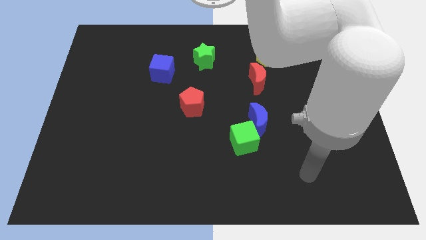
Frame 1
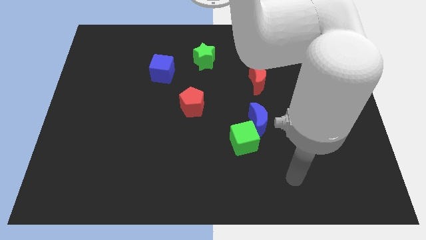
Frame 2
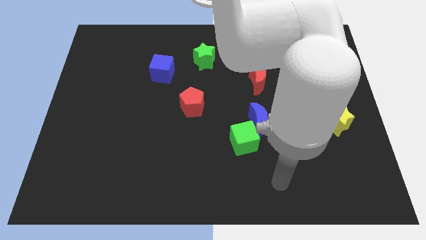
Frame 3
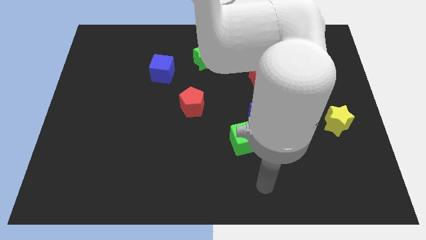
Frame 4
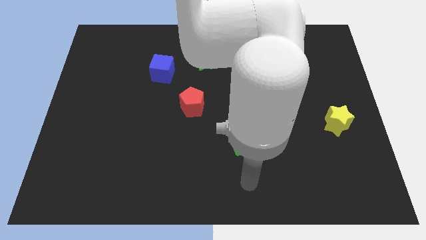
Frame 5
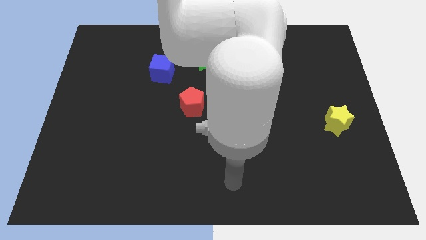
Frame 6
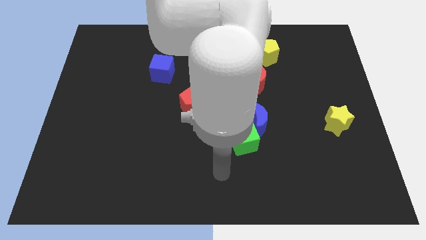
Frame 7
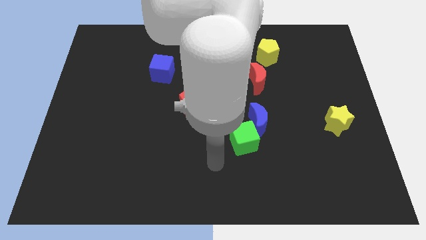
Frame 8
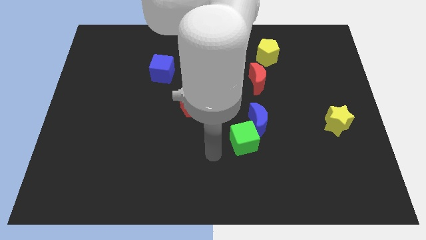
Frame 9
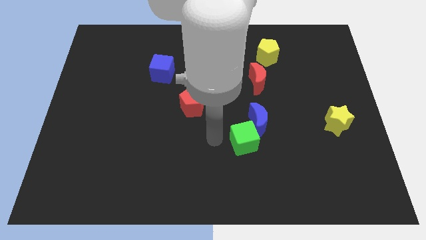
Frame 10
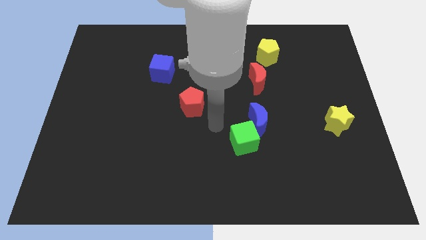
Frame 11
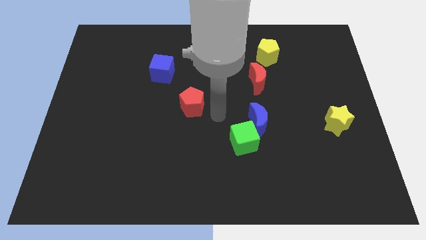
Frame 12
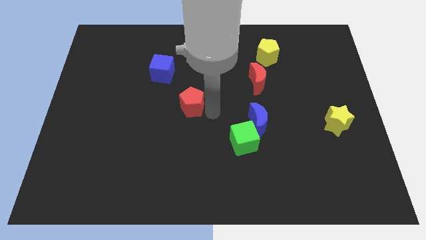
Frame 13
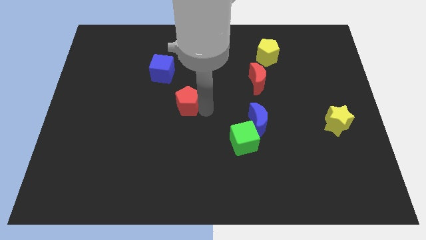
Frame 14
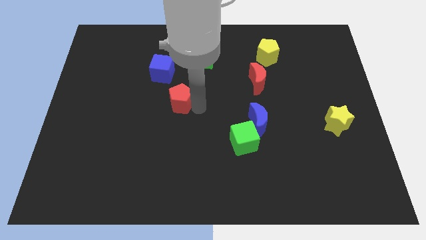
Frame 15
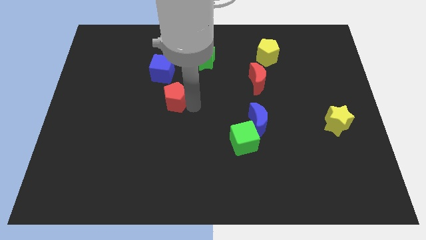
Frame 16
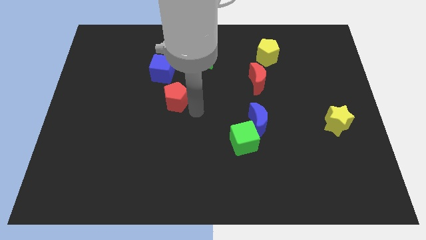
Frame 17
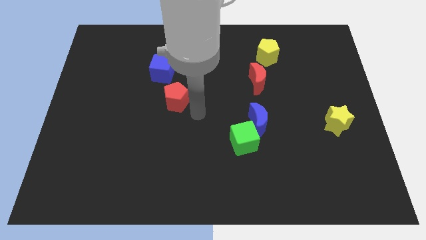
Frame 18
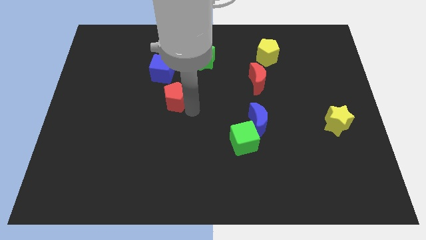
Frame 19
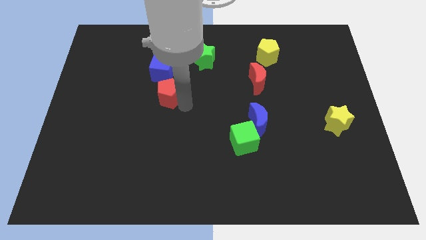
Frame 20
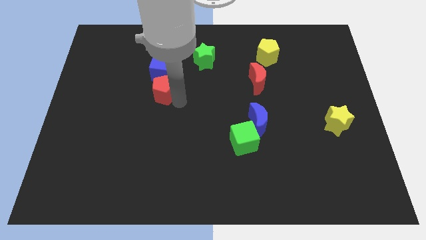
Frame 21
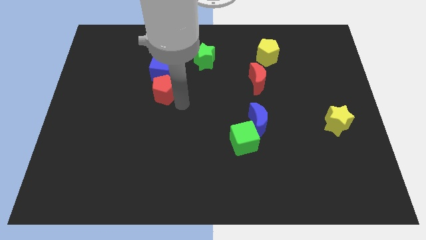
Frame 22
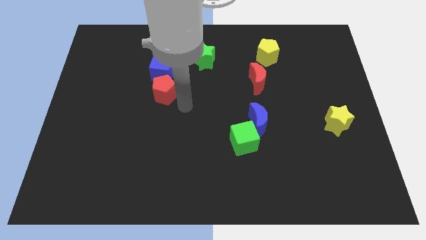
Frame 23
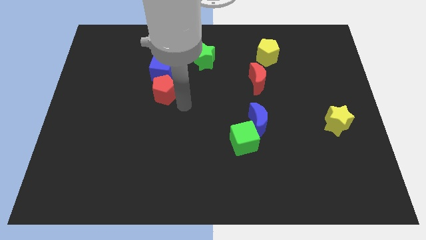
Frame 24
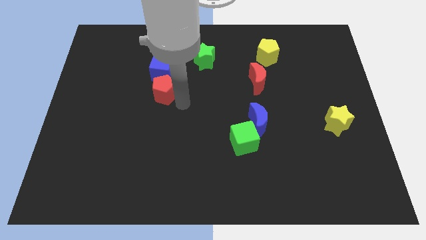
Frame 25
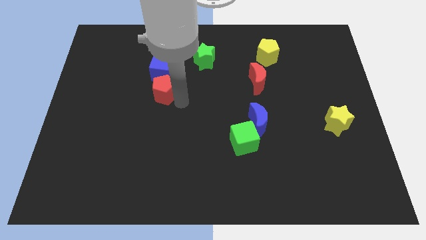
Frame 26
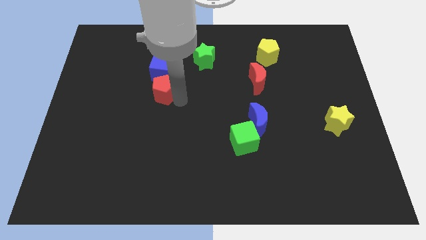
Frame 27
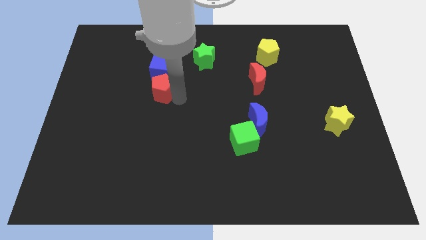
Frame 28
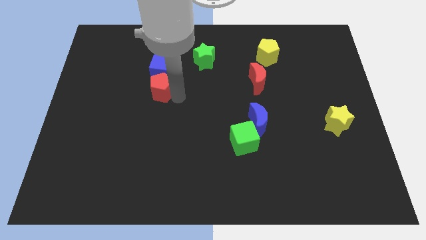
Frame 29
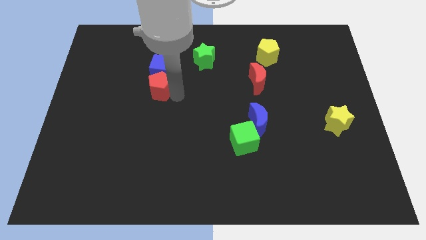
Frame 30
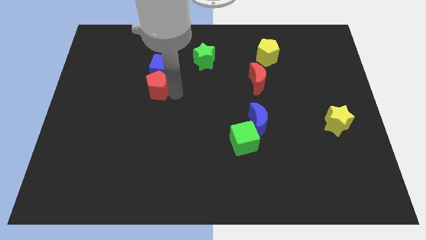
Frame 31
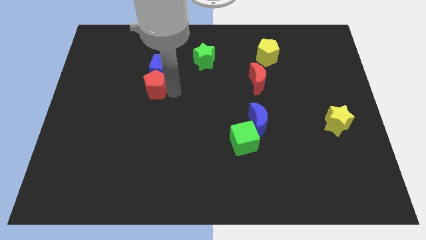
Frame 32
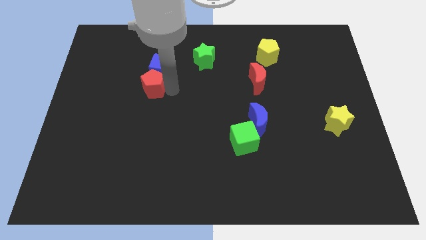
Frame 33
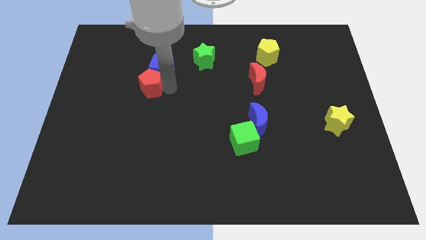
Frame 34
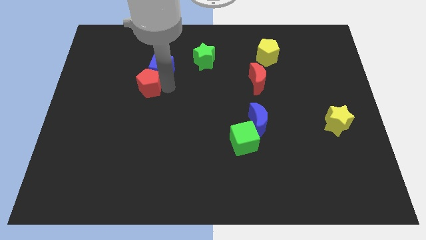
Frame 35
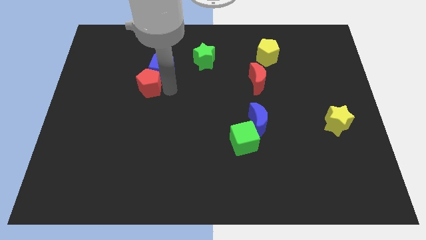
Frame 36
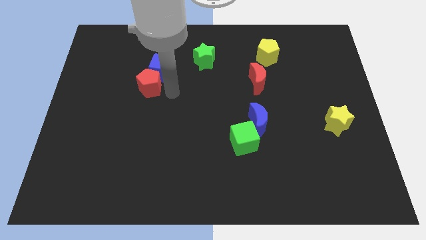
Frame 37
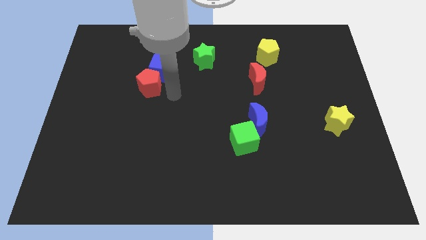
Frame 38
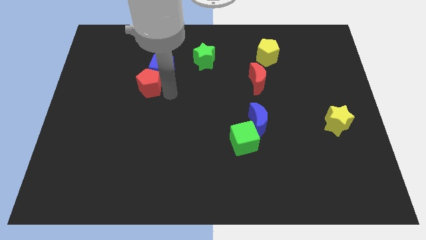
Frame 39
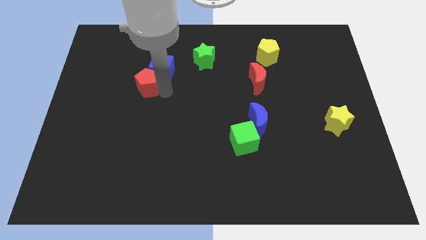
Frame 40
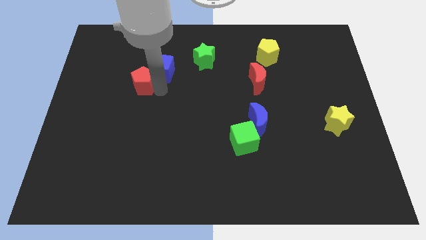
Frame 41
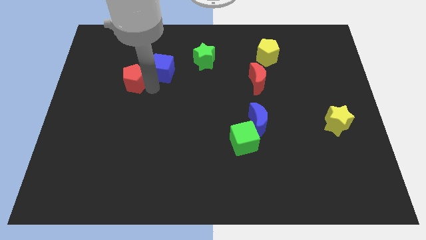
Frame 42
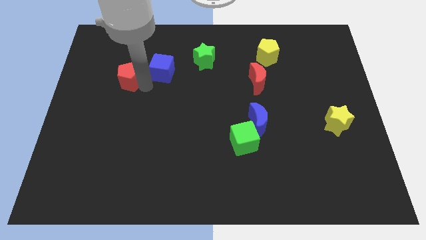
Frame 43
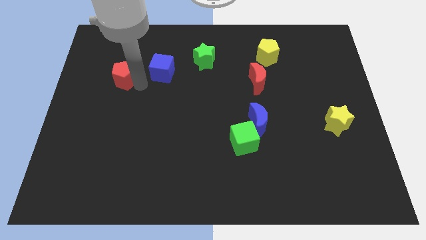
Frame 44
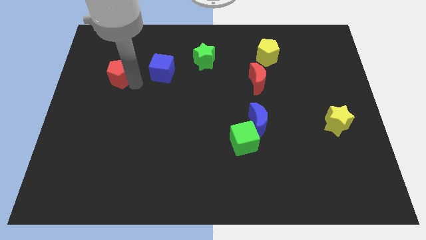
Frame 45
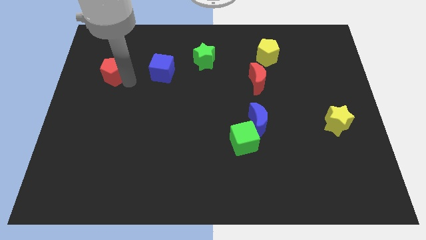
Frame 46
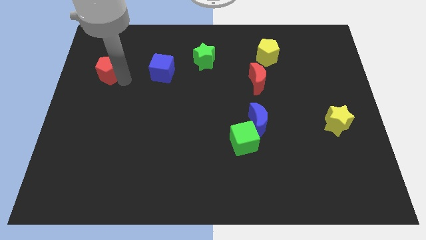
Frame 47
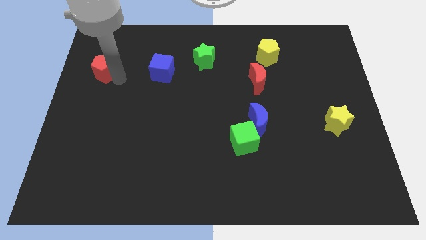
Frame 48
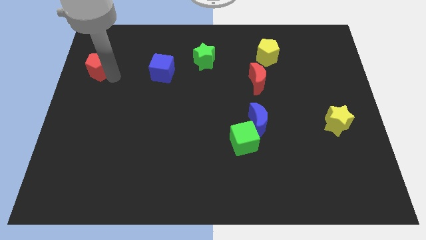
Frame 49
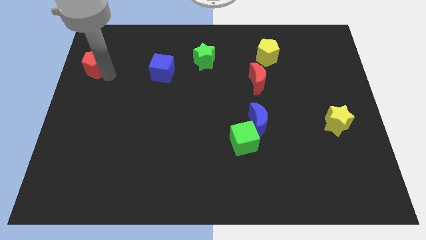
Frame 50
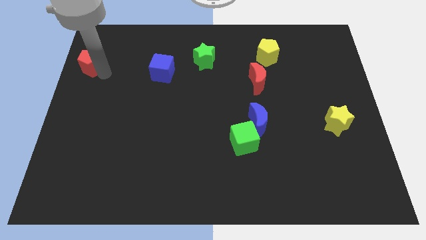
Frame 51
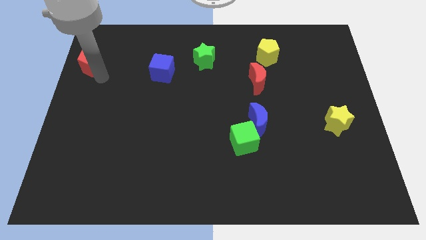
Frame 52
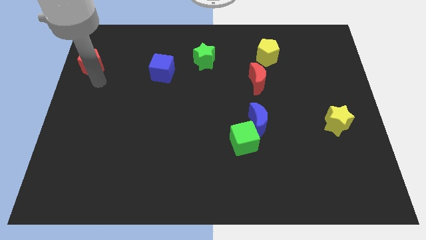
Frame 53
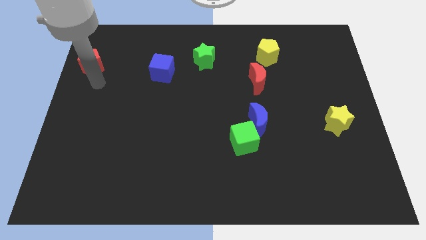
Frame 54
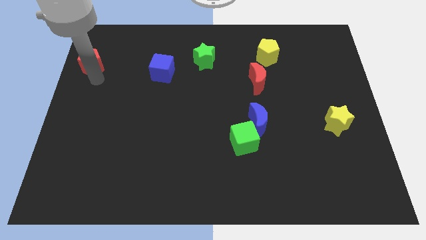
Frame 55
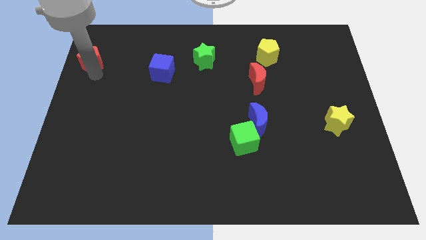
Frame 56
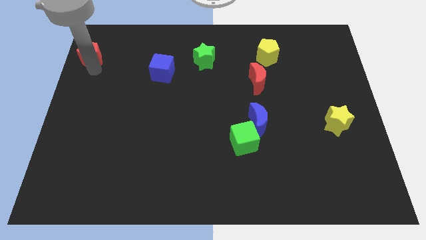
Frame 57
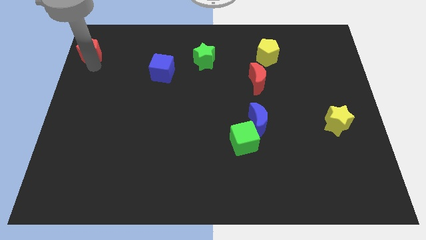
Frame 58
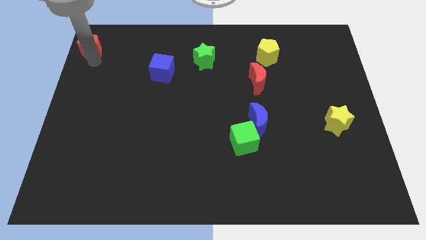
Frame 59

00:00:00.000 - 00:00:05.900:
put the red pentagon to the top left

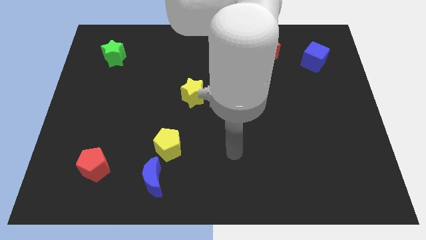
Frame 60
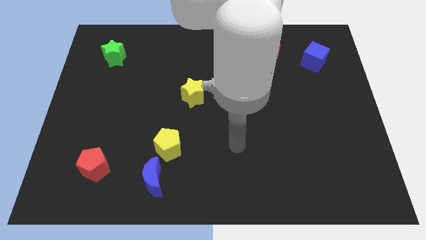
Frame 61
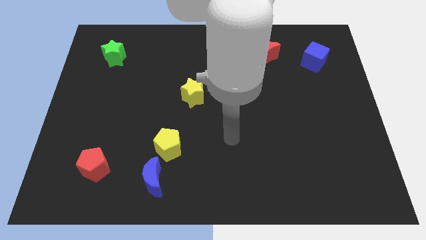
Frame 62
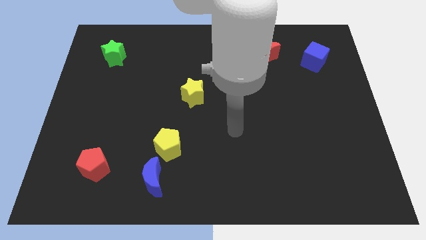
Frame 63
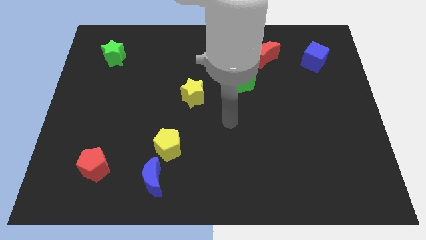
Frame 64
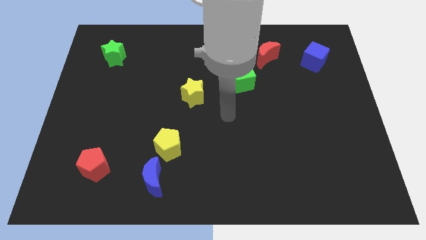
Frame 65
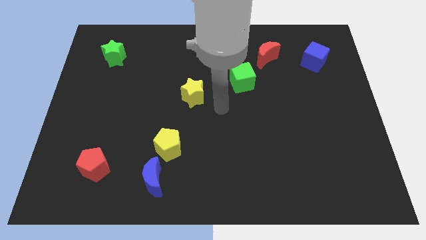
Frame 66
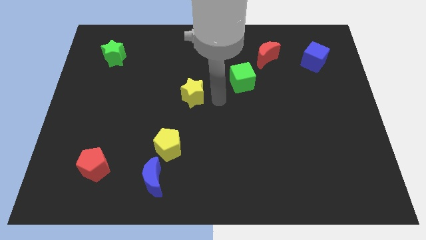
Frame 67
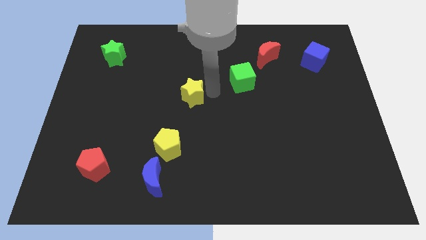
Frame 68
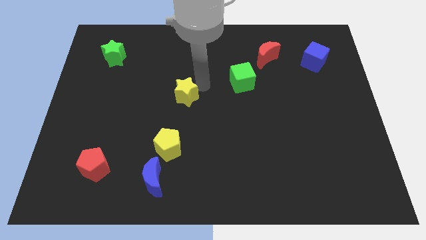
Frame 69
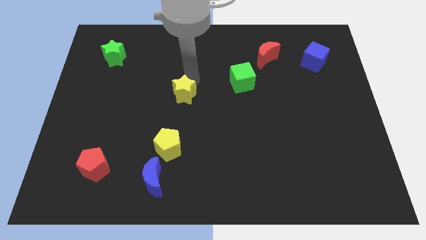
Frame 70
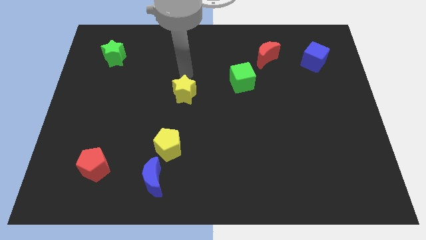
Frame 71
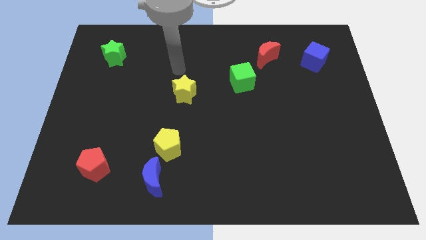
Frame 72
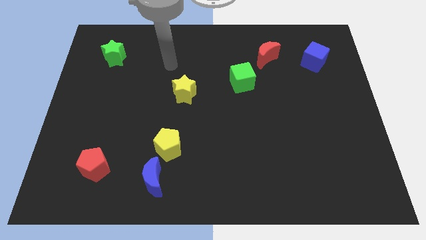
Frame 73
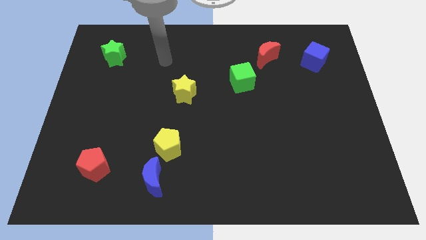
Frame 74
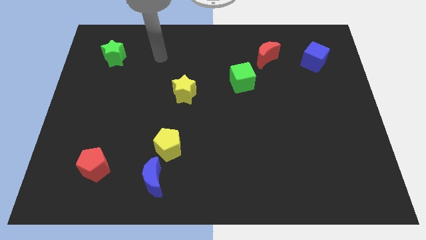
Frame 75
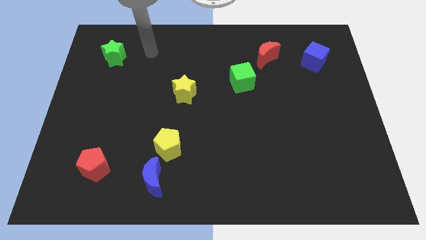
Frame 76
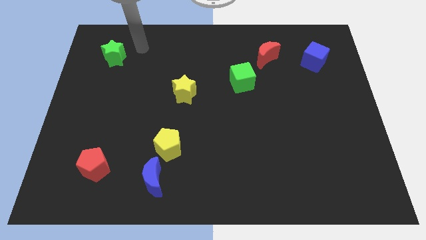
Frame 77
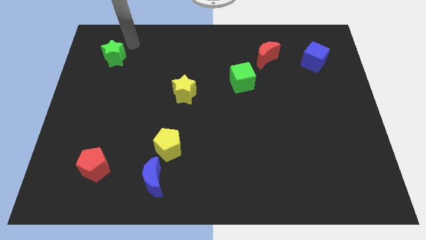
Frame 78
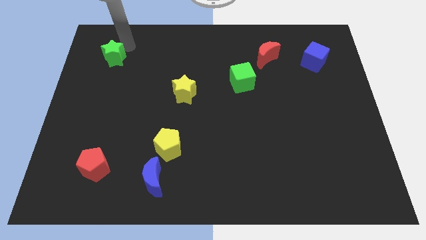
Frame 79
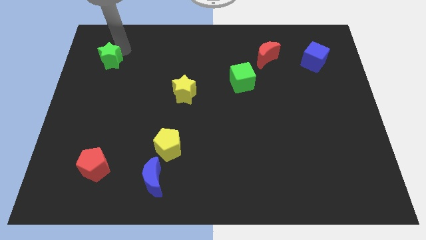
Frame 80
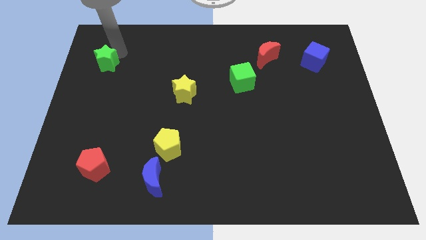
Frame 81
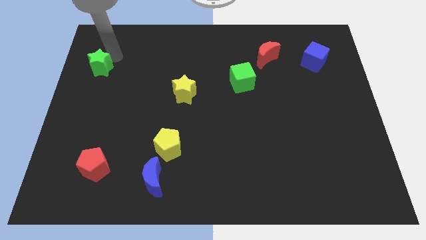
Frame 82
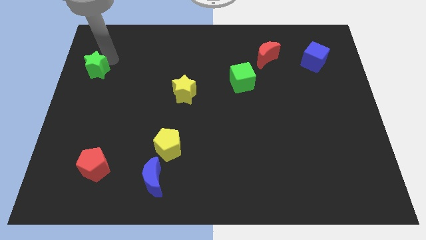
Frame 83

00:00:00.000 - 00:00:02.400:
move the green star to the center left
